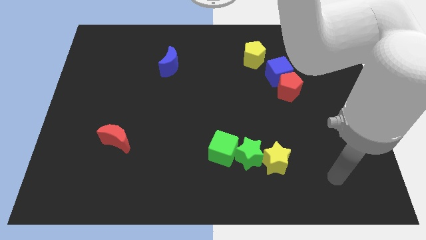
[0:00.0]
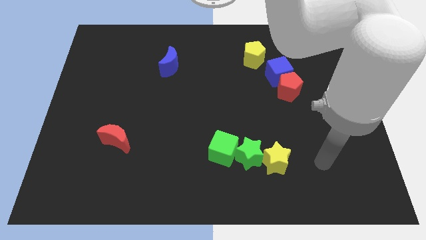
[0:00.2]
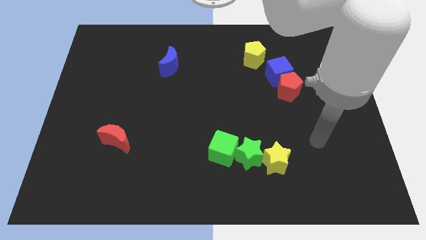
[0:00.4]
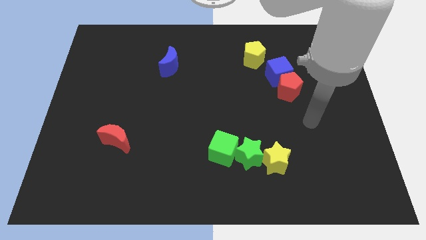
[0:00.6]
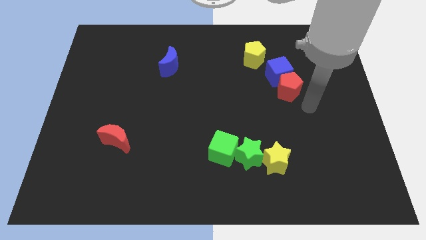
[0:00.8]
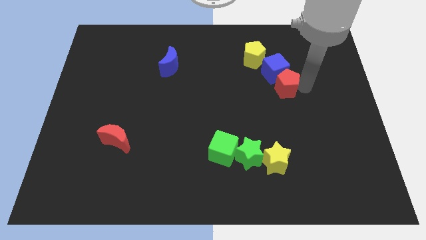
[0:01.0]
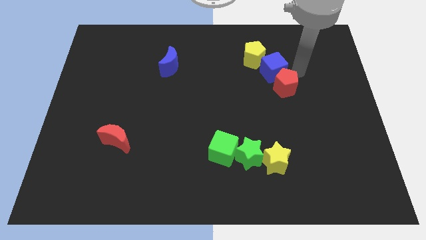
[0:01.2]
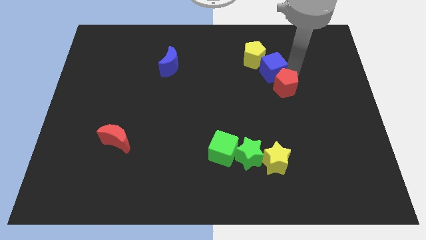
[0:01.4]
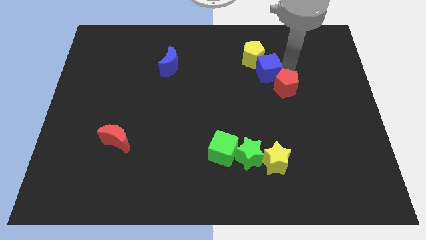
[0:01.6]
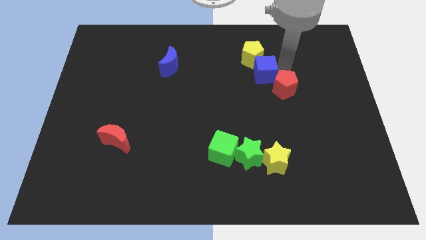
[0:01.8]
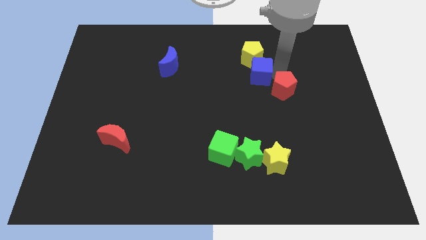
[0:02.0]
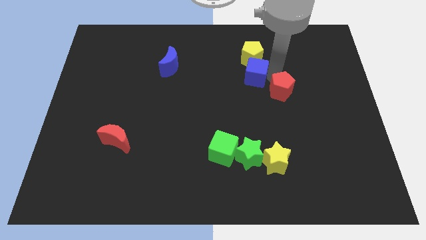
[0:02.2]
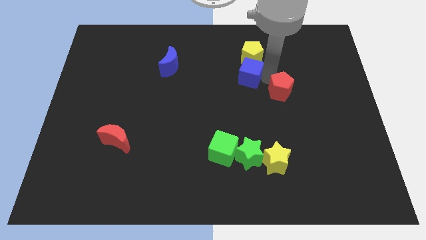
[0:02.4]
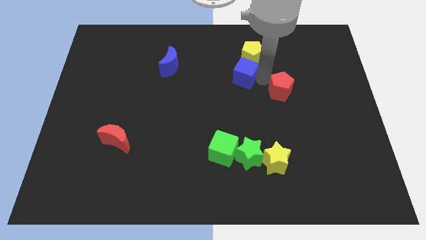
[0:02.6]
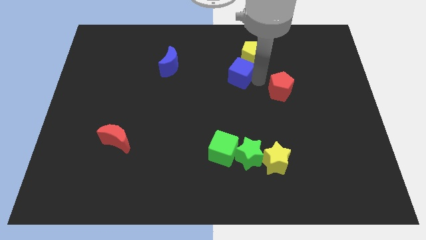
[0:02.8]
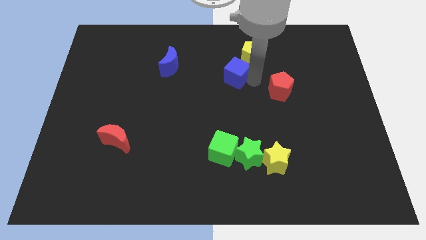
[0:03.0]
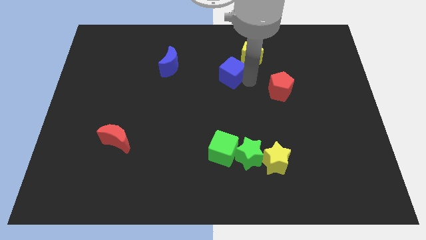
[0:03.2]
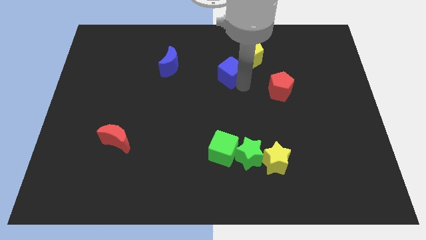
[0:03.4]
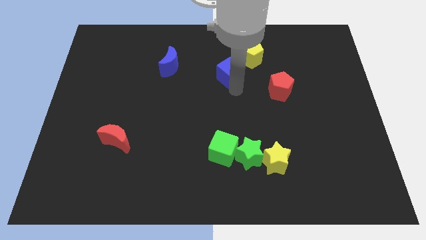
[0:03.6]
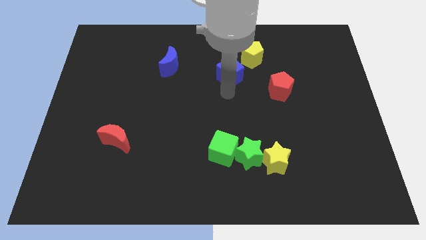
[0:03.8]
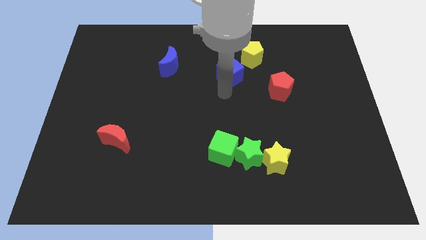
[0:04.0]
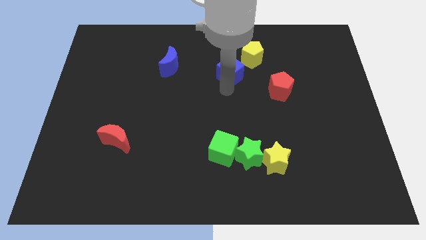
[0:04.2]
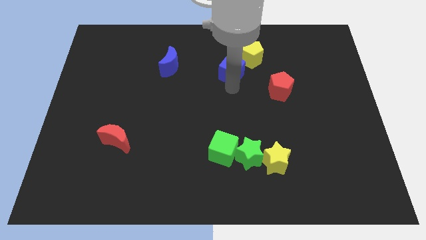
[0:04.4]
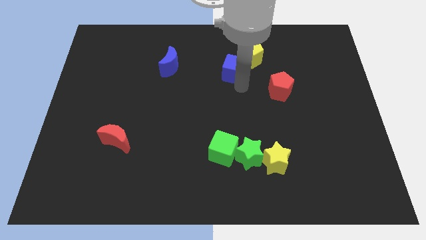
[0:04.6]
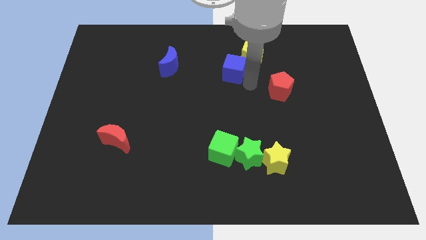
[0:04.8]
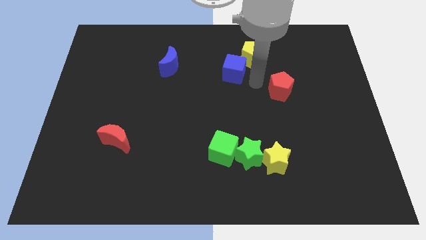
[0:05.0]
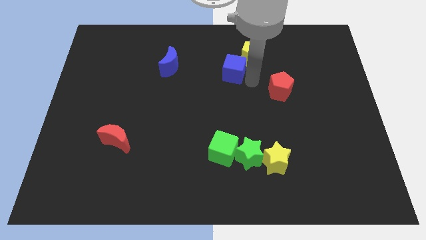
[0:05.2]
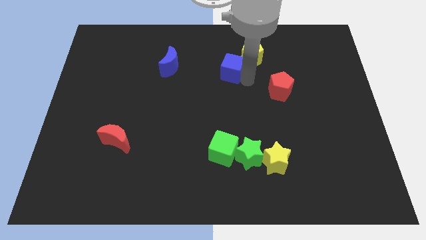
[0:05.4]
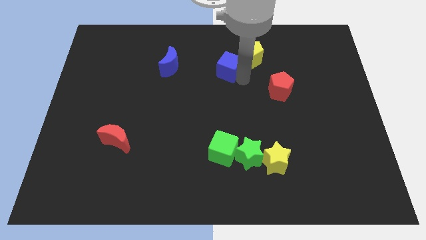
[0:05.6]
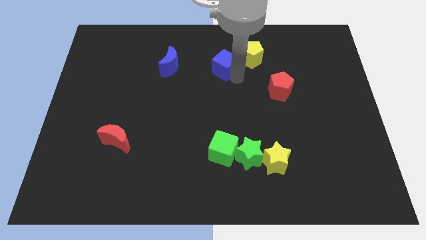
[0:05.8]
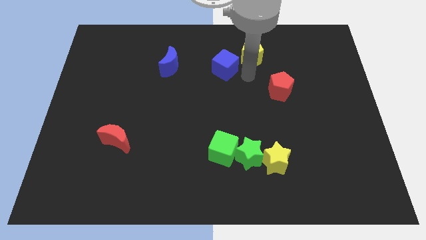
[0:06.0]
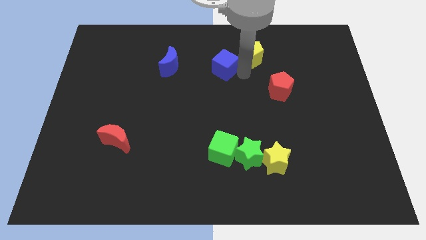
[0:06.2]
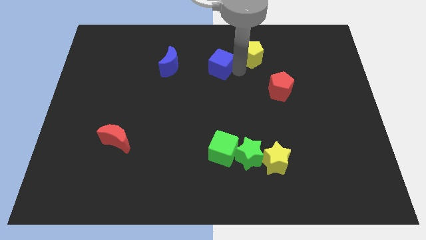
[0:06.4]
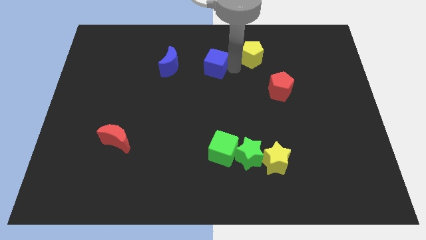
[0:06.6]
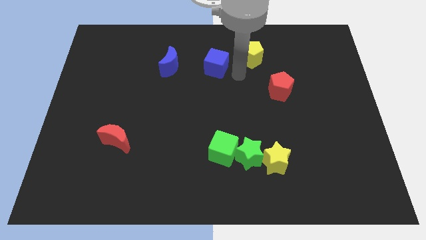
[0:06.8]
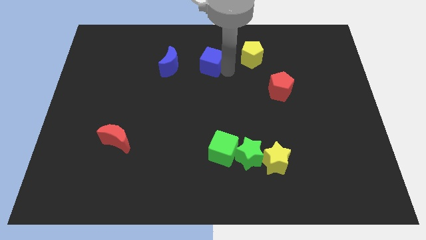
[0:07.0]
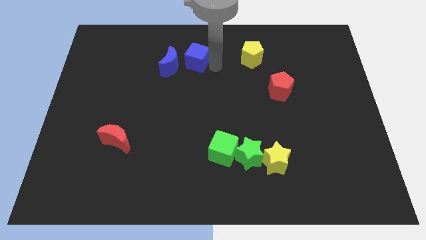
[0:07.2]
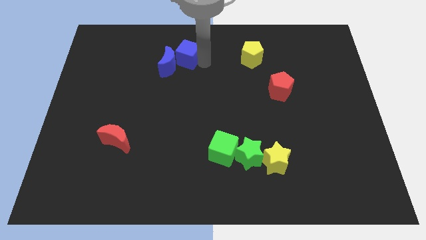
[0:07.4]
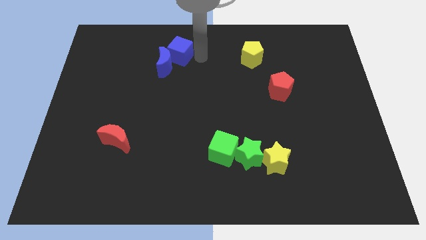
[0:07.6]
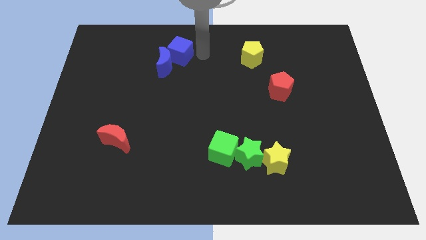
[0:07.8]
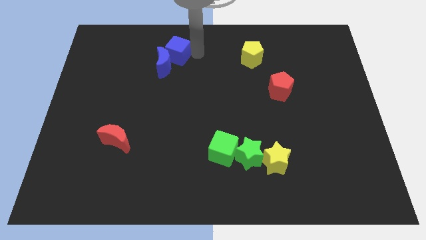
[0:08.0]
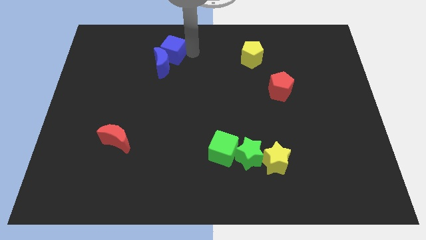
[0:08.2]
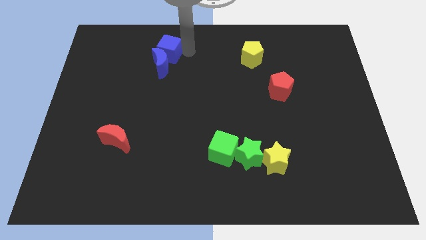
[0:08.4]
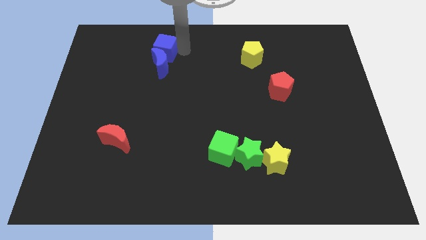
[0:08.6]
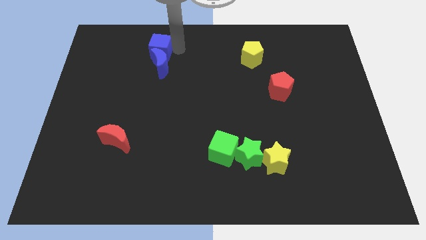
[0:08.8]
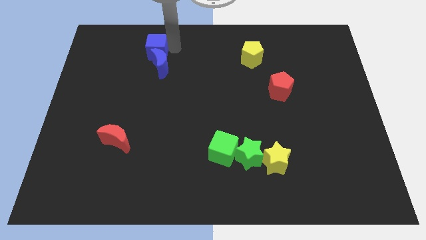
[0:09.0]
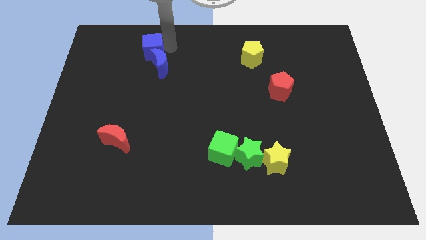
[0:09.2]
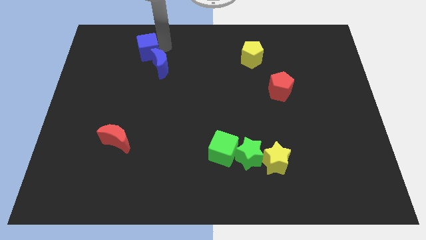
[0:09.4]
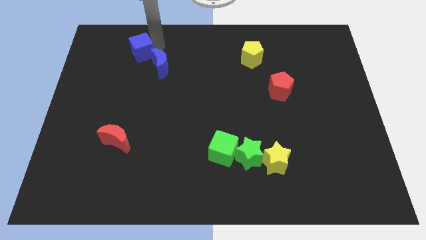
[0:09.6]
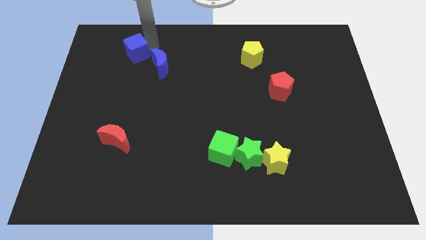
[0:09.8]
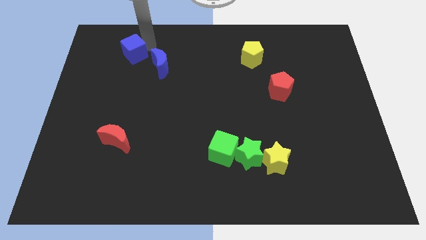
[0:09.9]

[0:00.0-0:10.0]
push the blue cube left of the blue moon

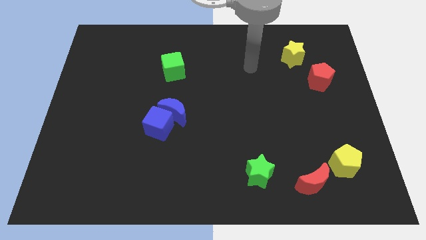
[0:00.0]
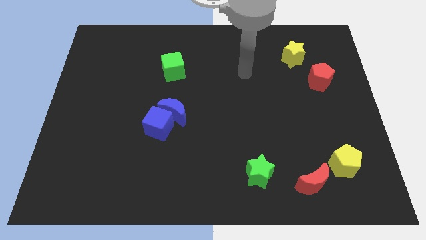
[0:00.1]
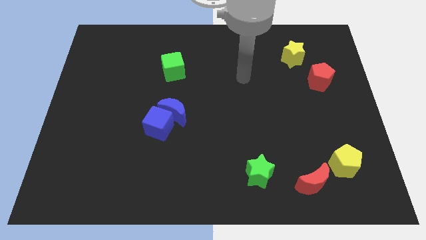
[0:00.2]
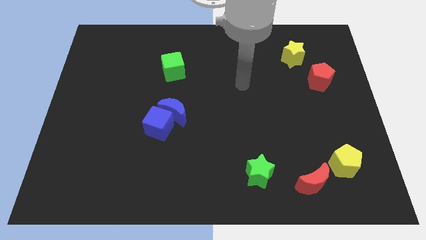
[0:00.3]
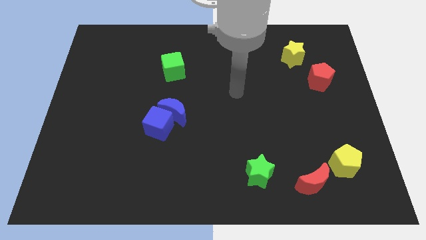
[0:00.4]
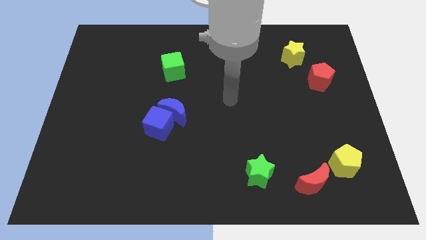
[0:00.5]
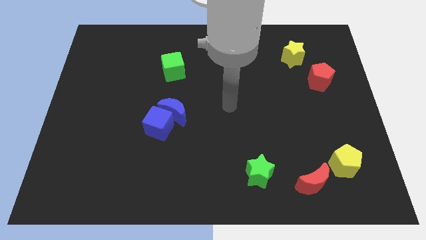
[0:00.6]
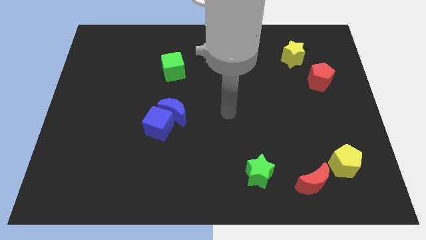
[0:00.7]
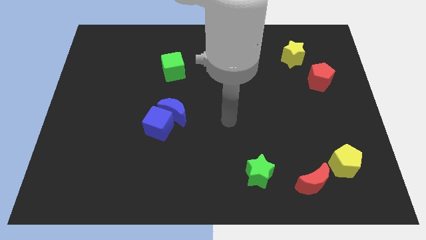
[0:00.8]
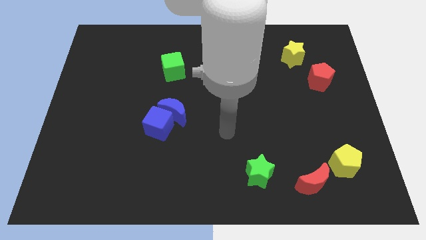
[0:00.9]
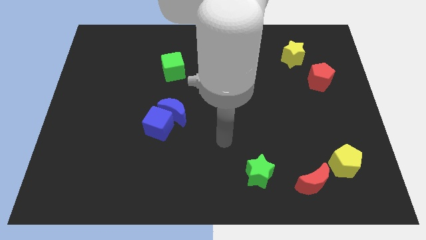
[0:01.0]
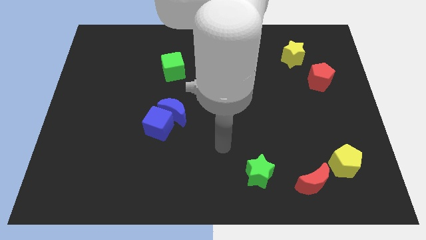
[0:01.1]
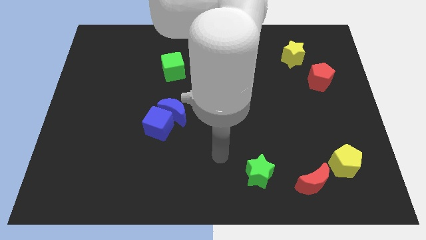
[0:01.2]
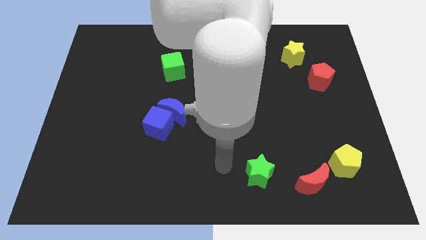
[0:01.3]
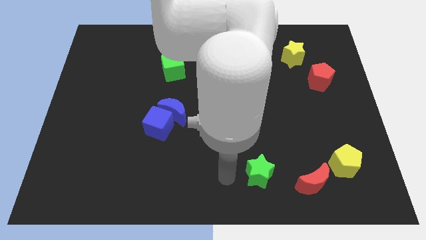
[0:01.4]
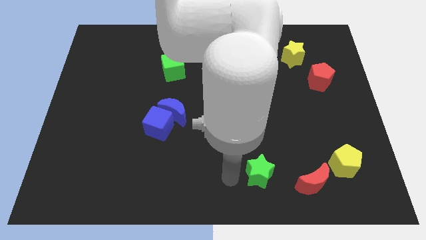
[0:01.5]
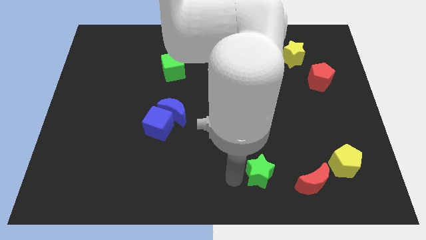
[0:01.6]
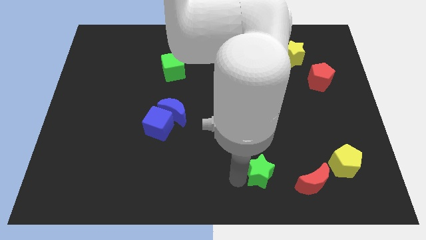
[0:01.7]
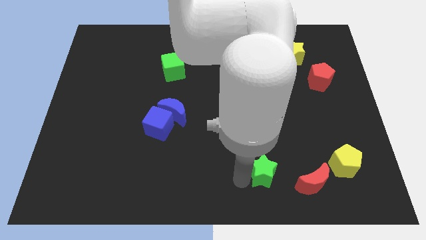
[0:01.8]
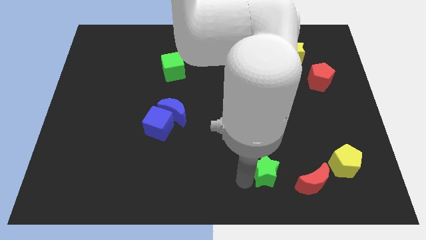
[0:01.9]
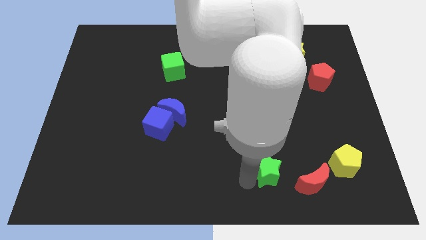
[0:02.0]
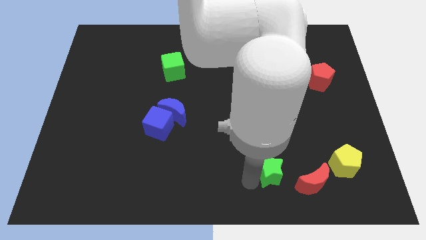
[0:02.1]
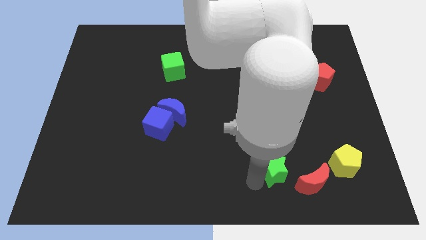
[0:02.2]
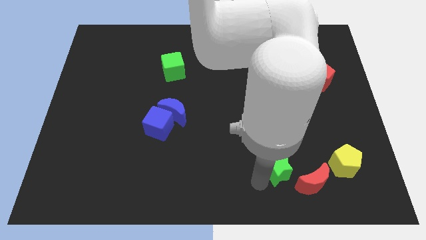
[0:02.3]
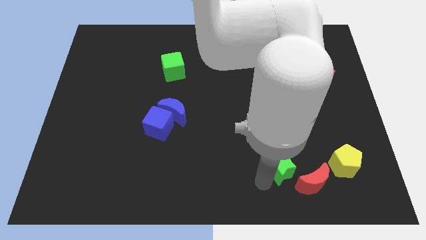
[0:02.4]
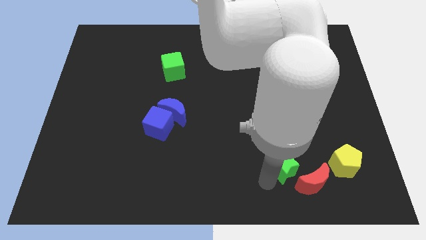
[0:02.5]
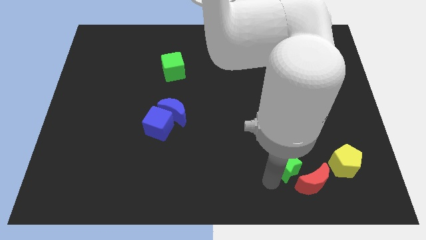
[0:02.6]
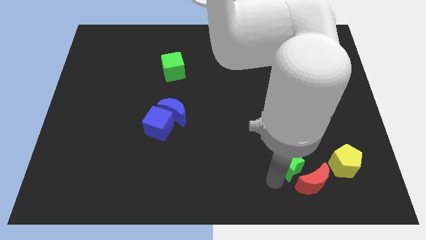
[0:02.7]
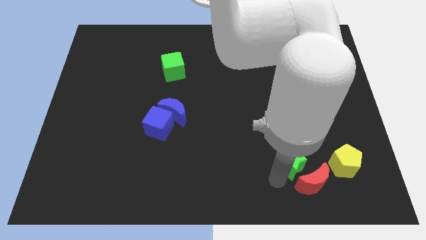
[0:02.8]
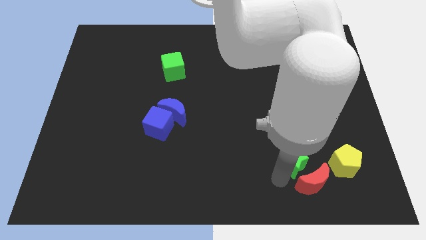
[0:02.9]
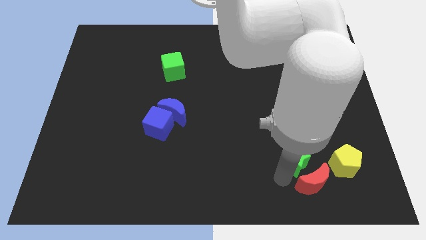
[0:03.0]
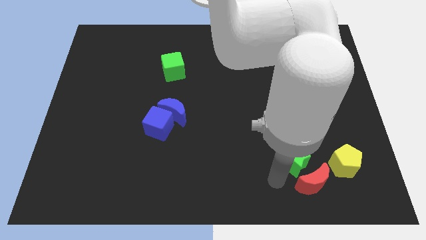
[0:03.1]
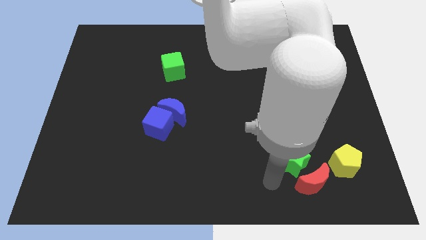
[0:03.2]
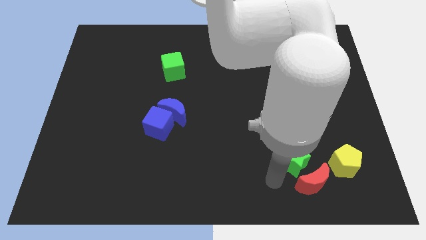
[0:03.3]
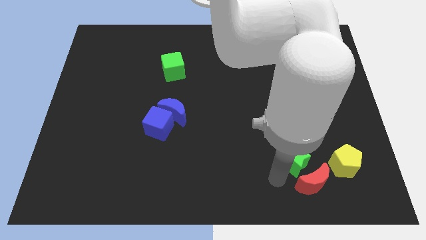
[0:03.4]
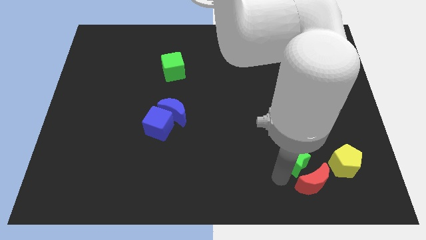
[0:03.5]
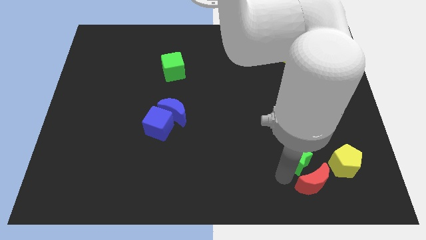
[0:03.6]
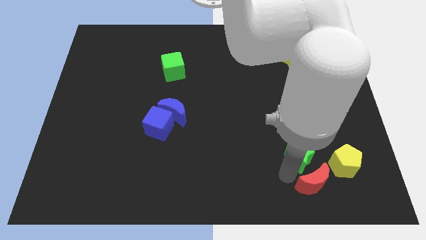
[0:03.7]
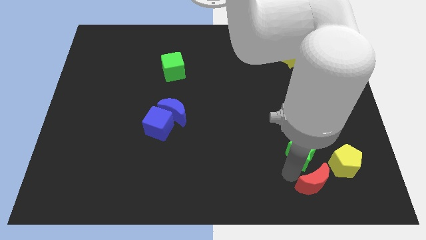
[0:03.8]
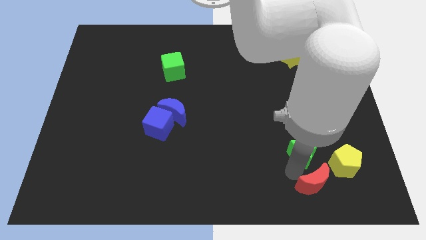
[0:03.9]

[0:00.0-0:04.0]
put the green star to the top left side of the yellow pentagon
